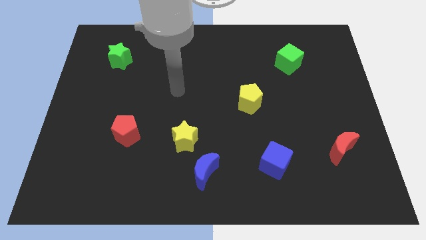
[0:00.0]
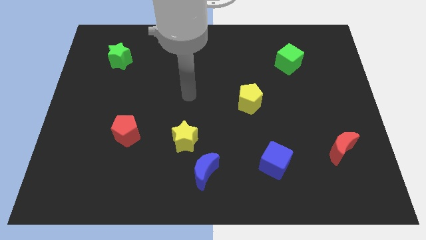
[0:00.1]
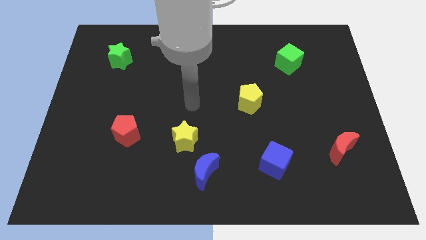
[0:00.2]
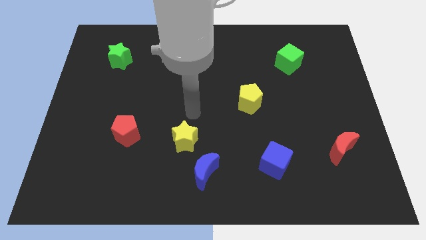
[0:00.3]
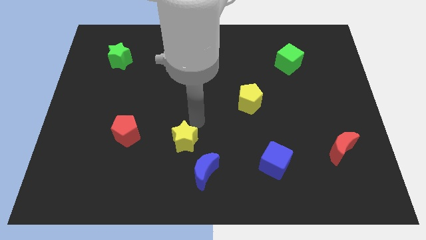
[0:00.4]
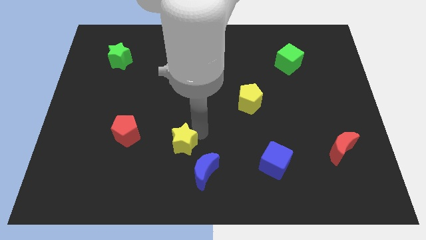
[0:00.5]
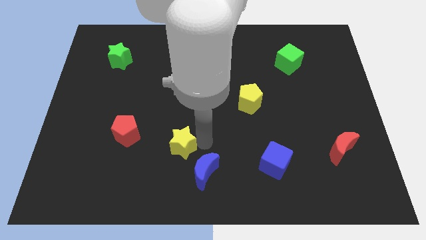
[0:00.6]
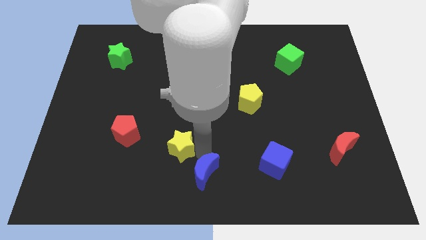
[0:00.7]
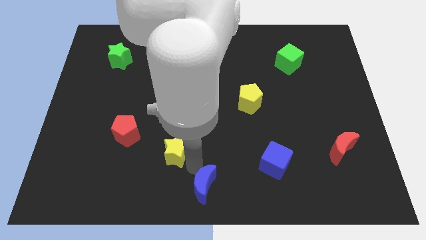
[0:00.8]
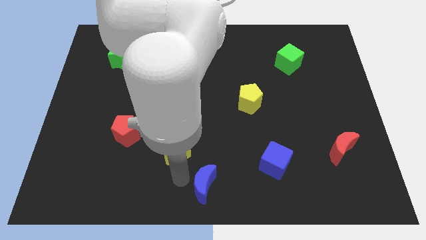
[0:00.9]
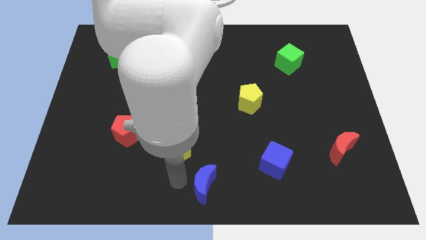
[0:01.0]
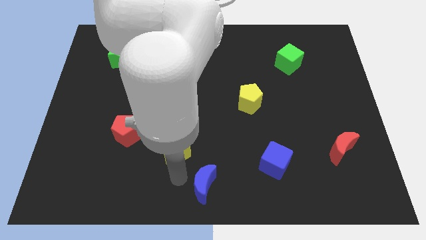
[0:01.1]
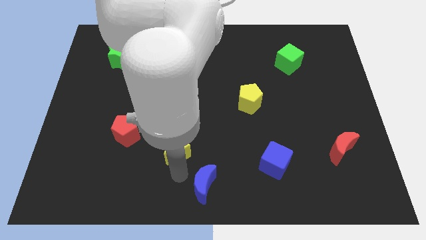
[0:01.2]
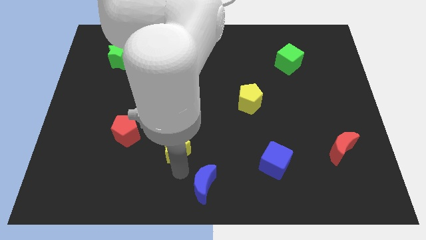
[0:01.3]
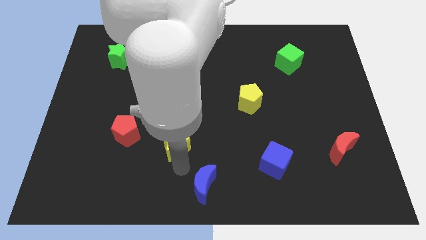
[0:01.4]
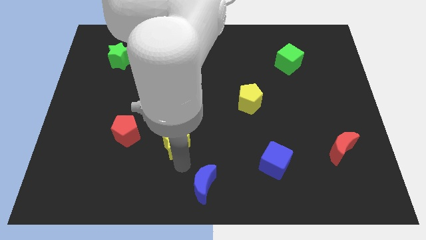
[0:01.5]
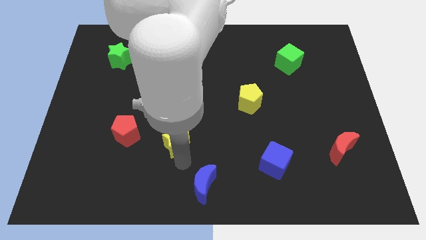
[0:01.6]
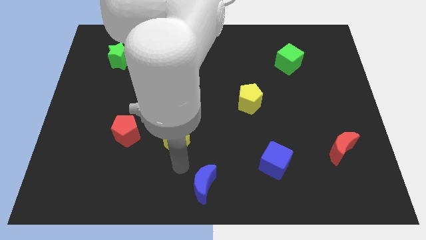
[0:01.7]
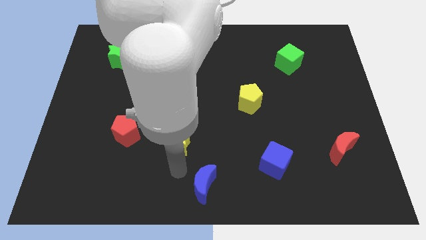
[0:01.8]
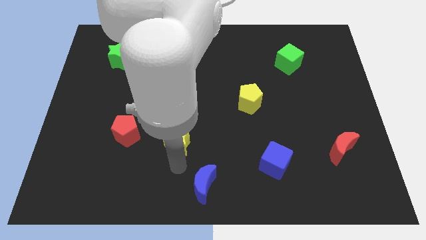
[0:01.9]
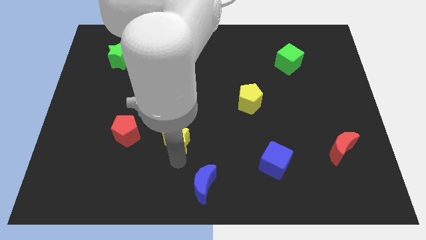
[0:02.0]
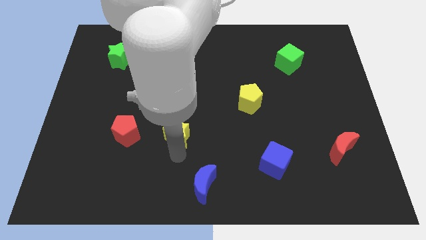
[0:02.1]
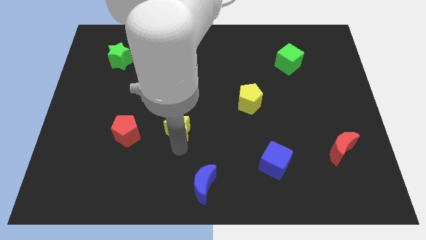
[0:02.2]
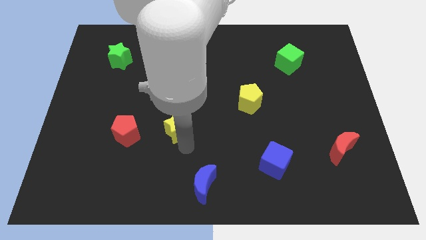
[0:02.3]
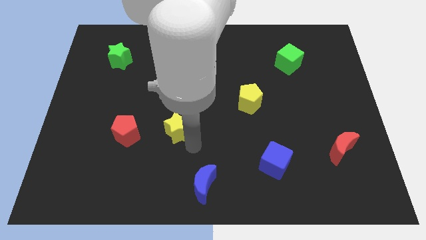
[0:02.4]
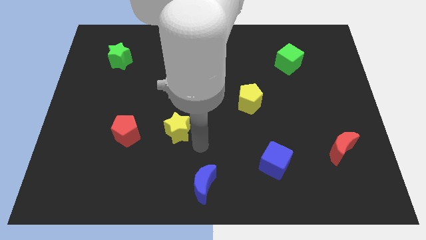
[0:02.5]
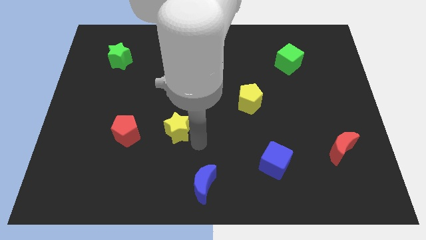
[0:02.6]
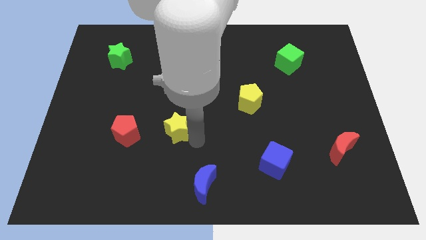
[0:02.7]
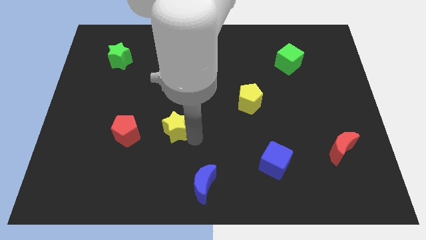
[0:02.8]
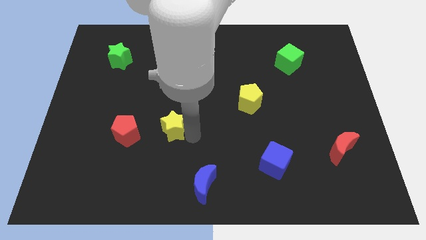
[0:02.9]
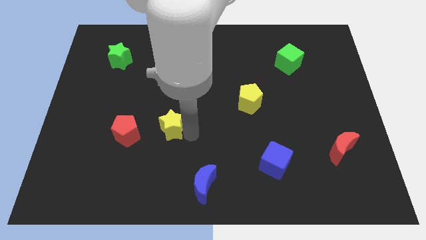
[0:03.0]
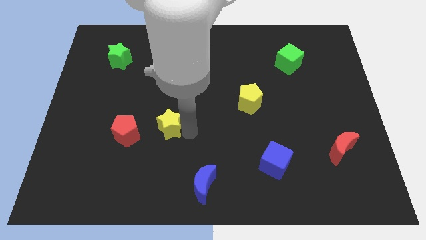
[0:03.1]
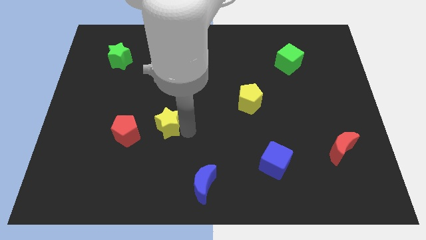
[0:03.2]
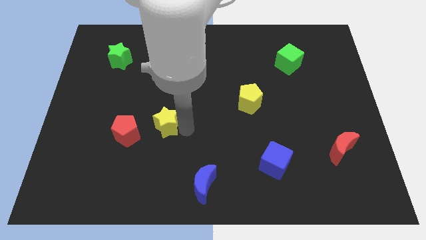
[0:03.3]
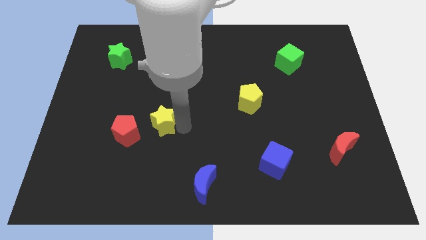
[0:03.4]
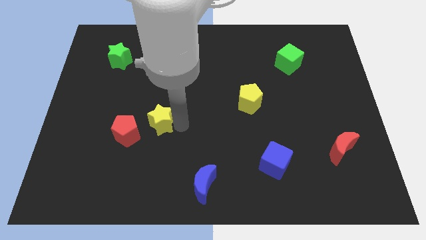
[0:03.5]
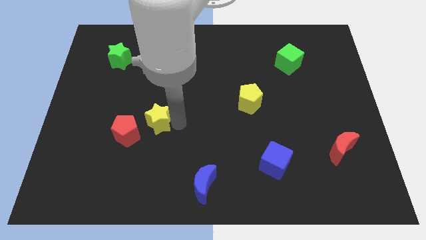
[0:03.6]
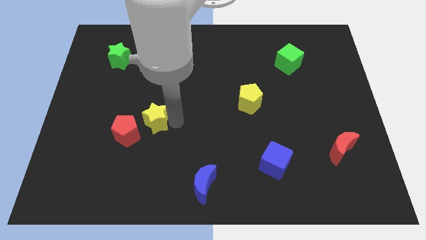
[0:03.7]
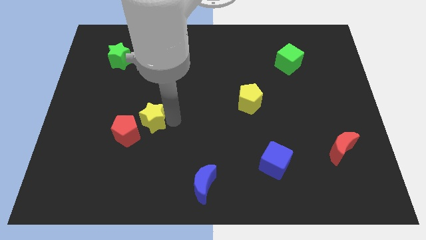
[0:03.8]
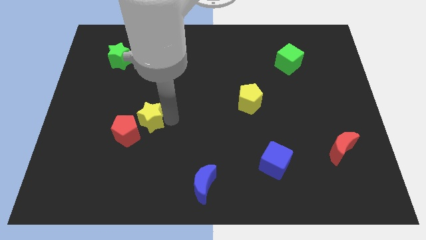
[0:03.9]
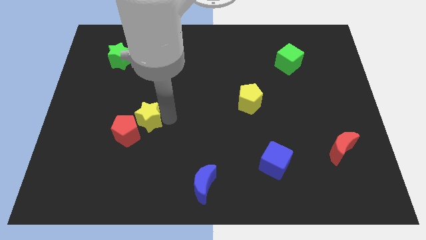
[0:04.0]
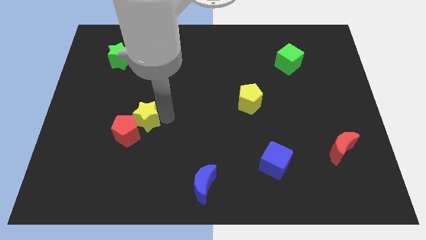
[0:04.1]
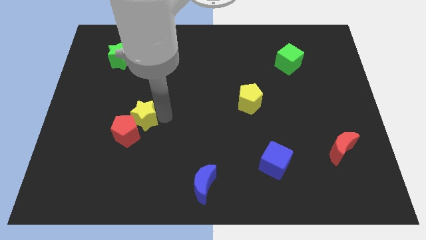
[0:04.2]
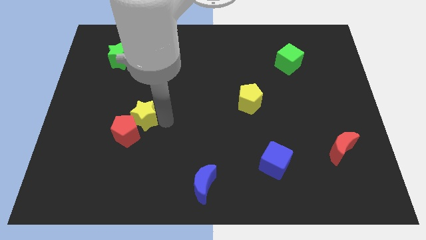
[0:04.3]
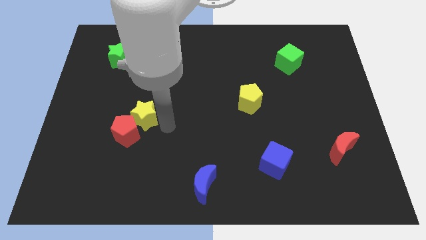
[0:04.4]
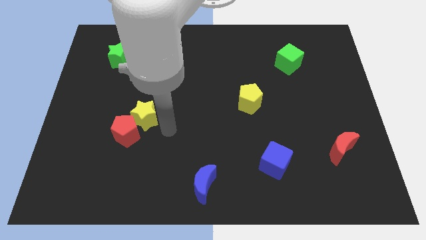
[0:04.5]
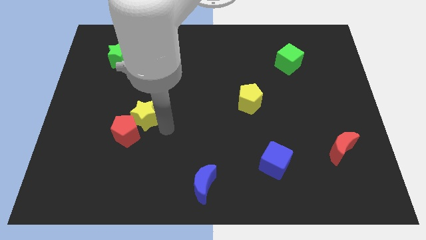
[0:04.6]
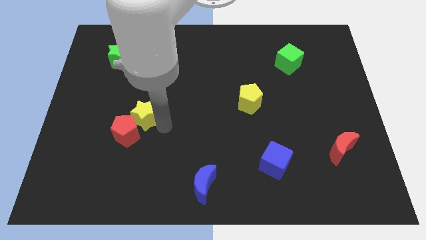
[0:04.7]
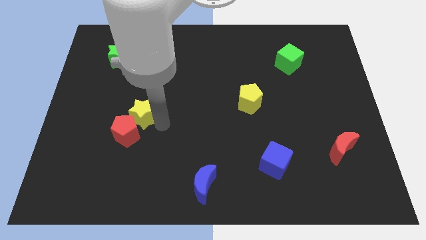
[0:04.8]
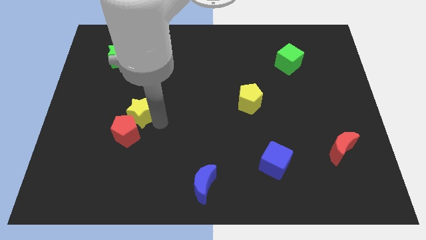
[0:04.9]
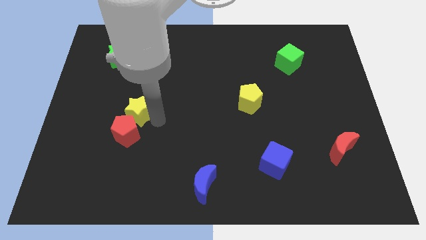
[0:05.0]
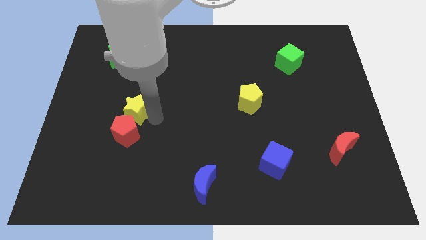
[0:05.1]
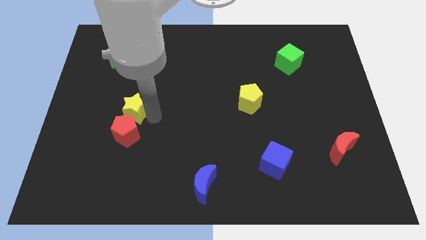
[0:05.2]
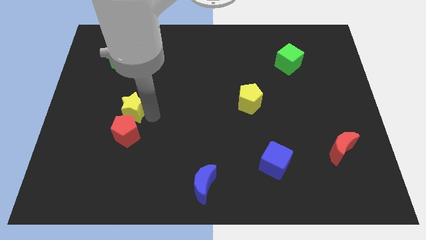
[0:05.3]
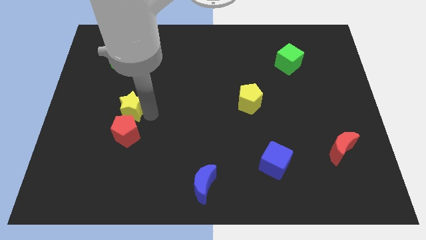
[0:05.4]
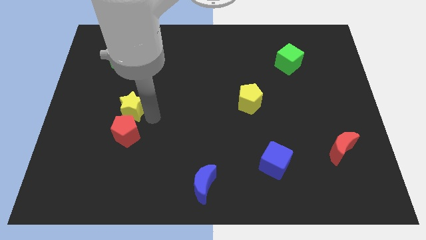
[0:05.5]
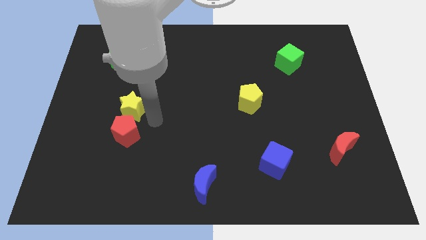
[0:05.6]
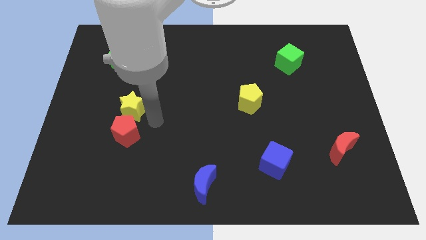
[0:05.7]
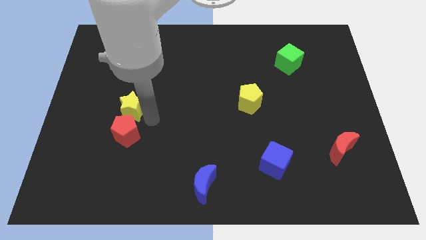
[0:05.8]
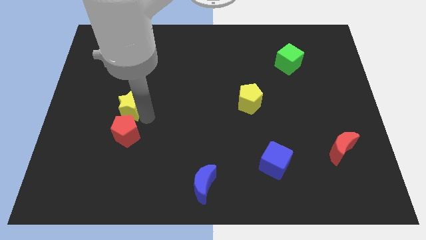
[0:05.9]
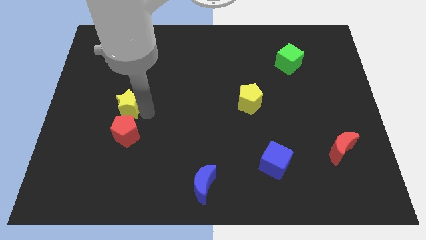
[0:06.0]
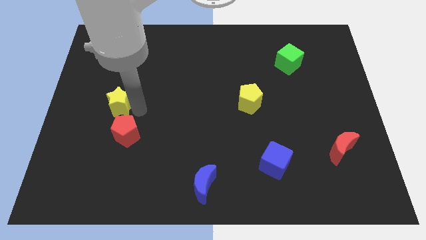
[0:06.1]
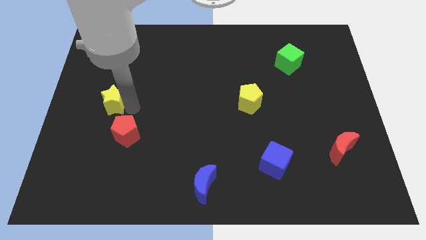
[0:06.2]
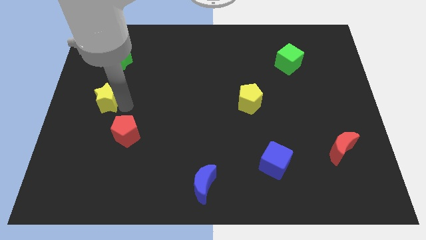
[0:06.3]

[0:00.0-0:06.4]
put the yellow star to the left side of the board
